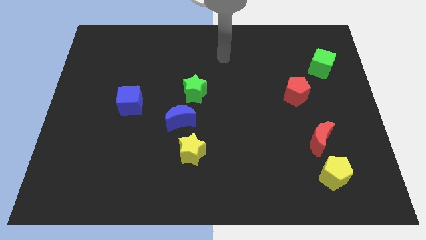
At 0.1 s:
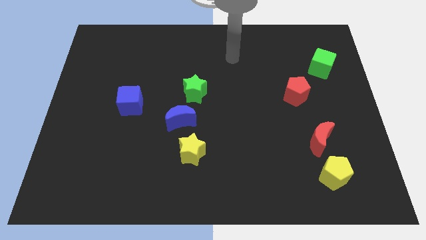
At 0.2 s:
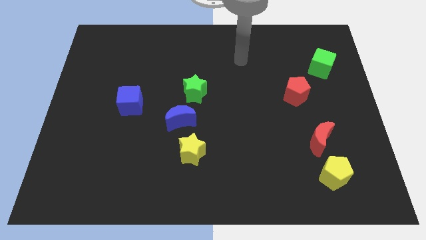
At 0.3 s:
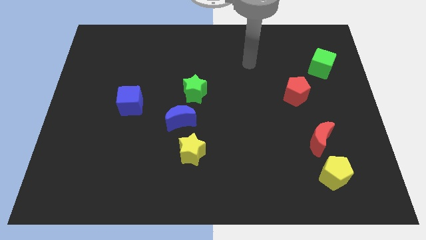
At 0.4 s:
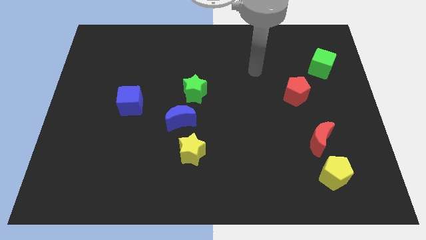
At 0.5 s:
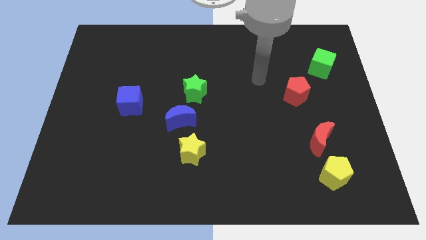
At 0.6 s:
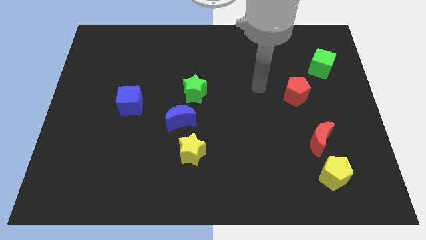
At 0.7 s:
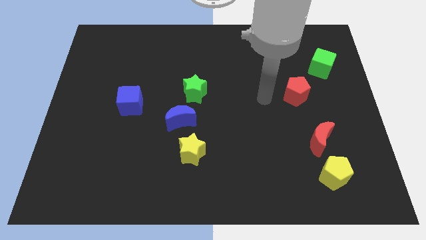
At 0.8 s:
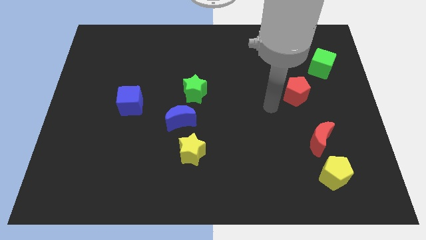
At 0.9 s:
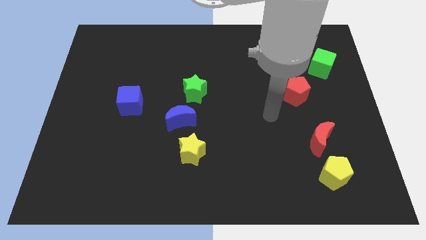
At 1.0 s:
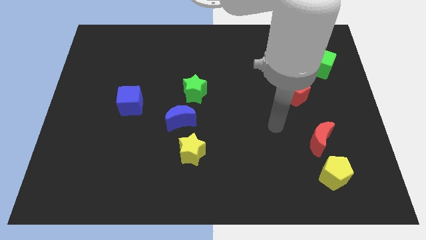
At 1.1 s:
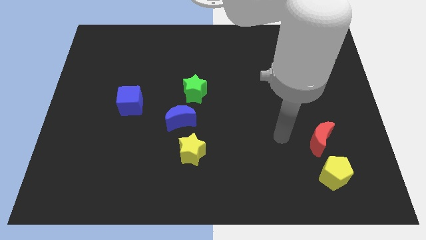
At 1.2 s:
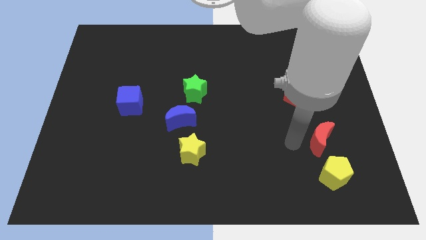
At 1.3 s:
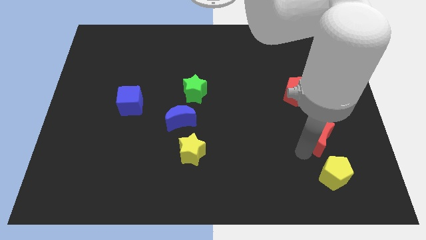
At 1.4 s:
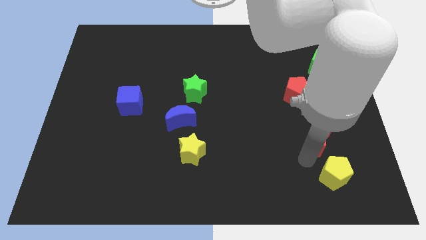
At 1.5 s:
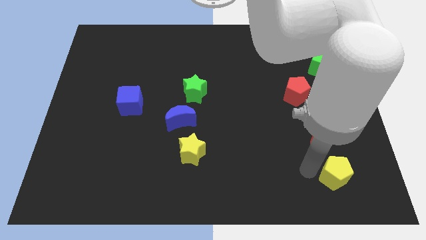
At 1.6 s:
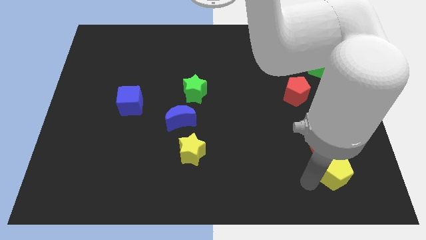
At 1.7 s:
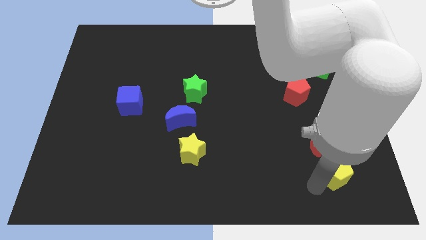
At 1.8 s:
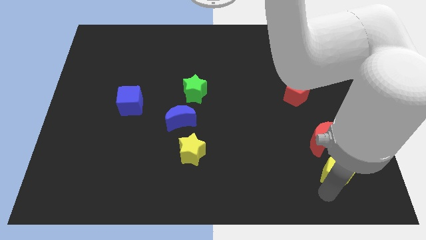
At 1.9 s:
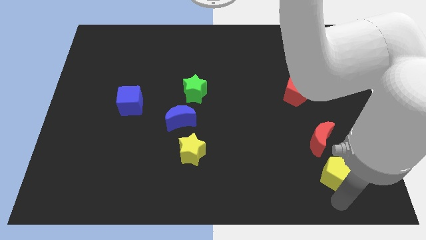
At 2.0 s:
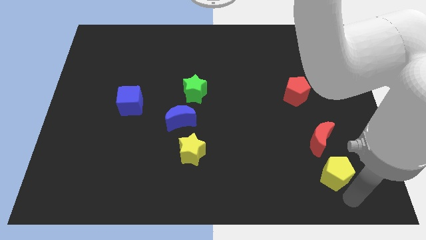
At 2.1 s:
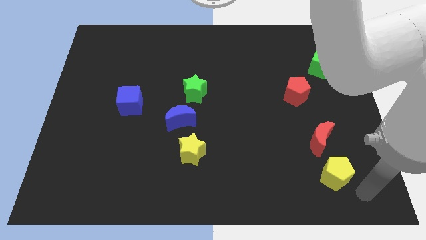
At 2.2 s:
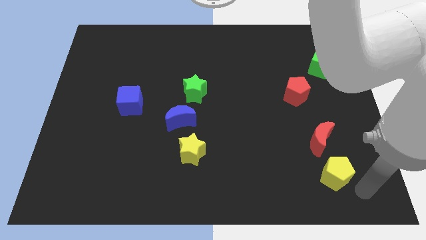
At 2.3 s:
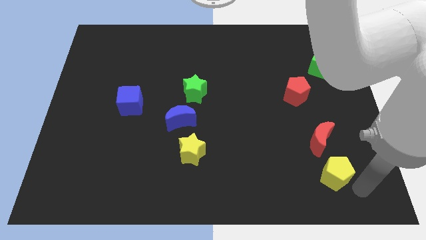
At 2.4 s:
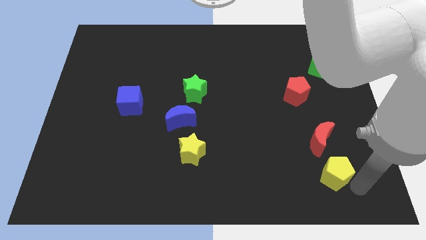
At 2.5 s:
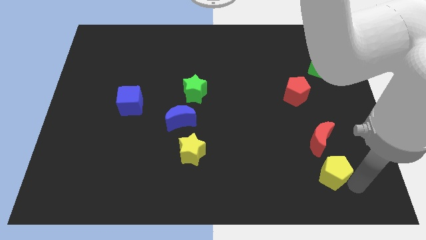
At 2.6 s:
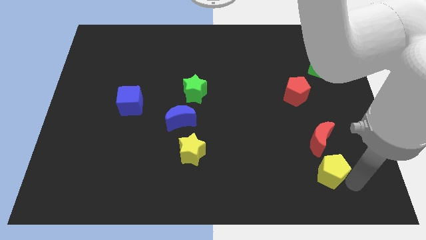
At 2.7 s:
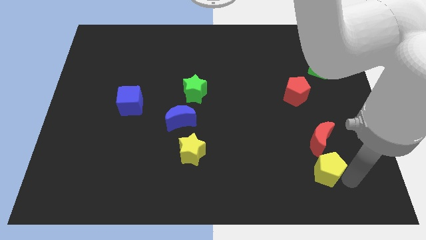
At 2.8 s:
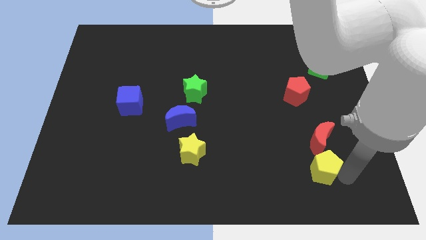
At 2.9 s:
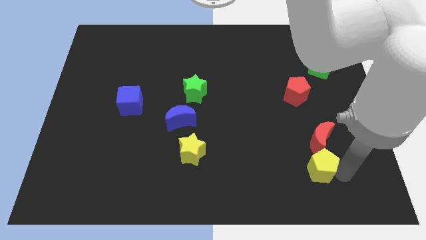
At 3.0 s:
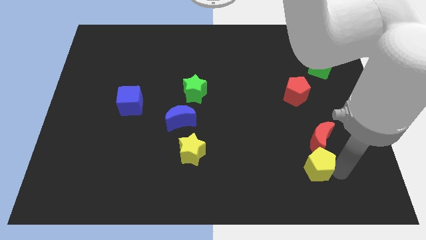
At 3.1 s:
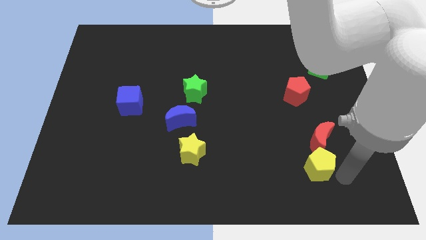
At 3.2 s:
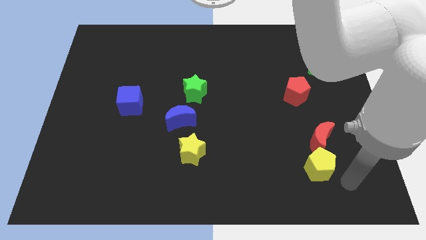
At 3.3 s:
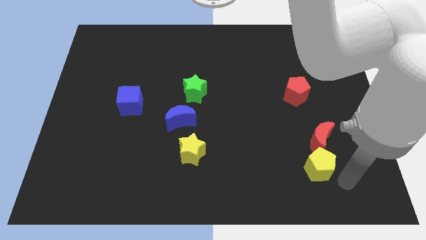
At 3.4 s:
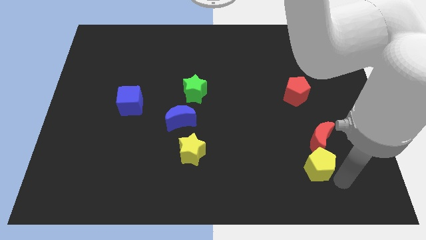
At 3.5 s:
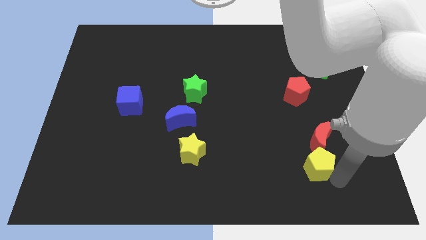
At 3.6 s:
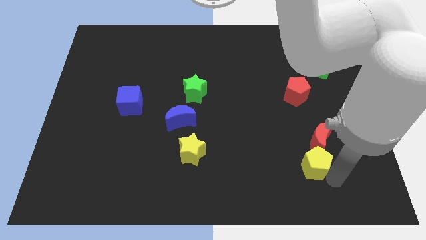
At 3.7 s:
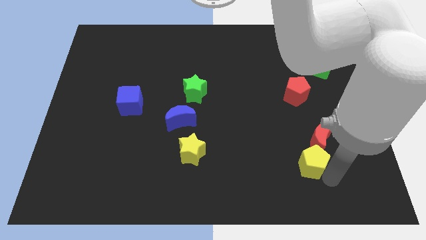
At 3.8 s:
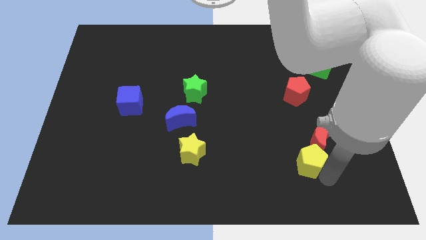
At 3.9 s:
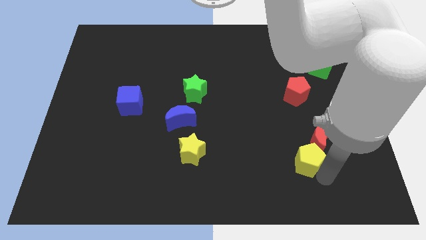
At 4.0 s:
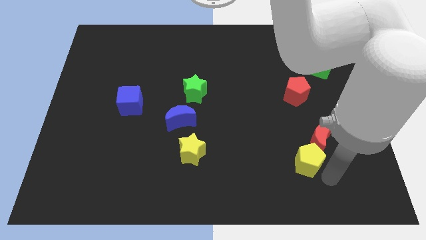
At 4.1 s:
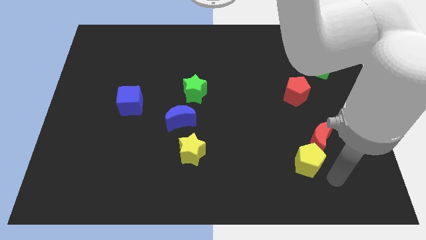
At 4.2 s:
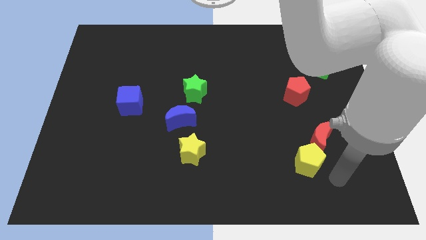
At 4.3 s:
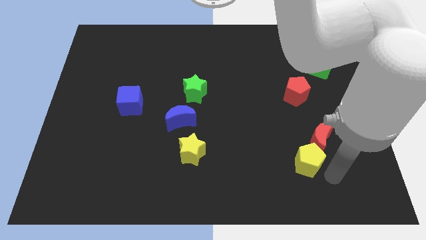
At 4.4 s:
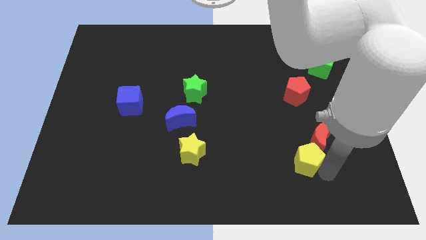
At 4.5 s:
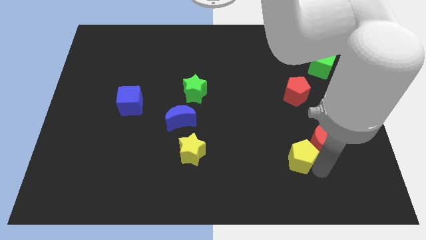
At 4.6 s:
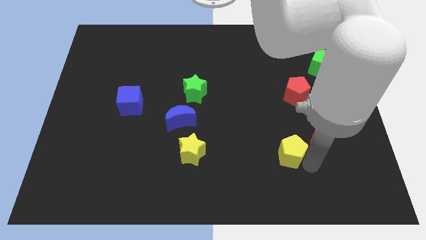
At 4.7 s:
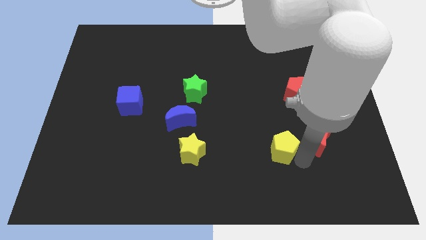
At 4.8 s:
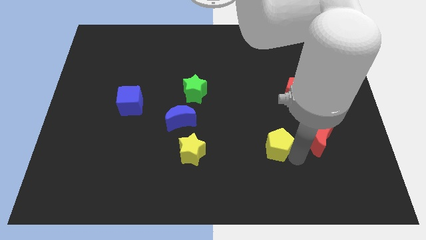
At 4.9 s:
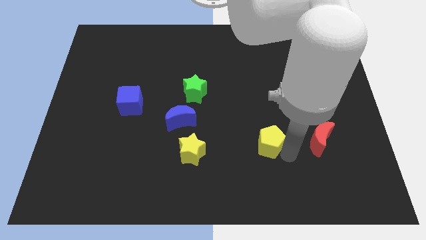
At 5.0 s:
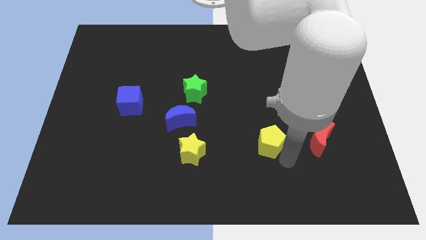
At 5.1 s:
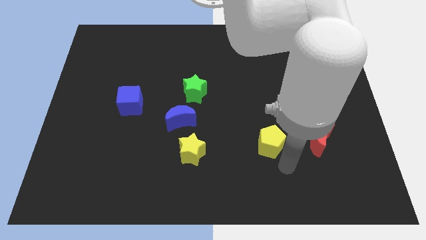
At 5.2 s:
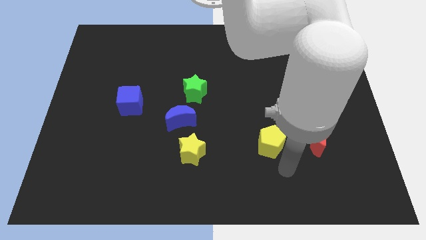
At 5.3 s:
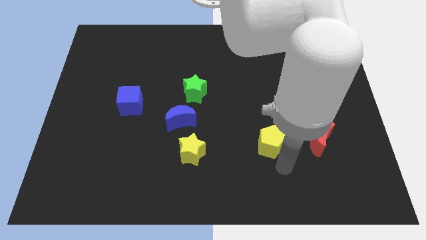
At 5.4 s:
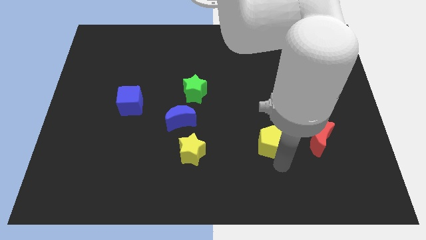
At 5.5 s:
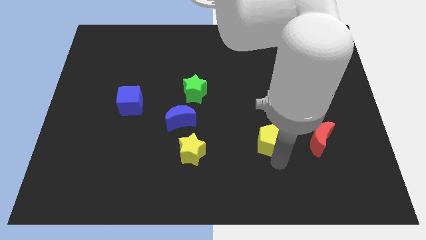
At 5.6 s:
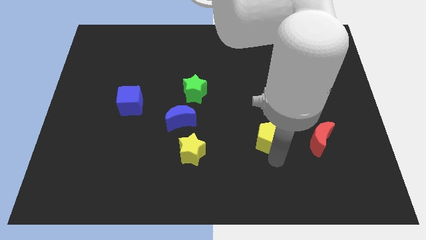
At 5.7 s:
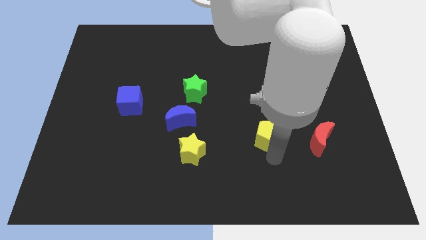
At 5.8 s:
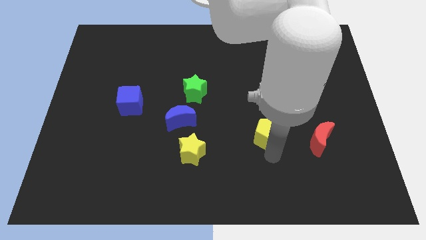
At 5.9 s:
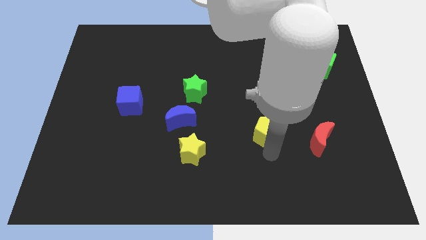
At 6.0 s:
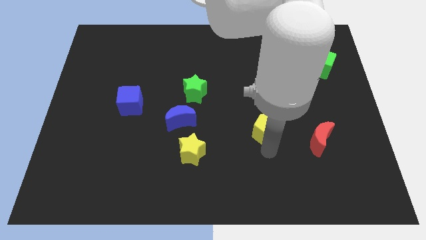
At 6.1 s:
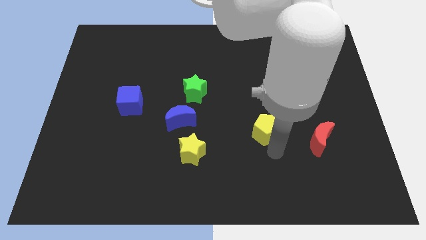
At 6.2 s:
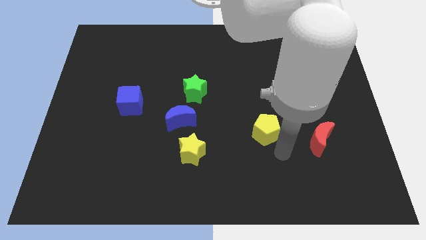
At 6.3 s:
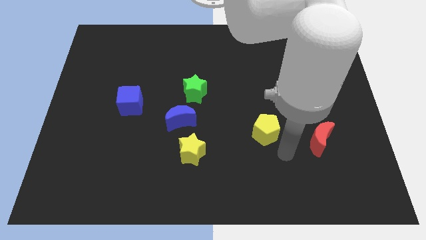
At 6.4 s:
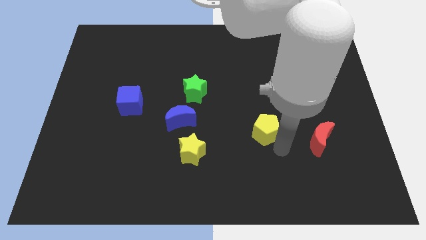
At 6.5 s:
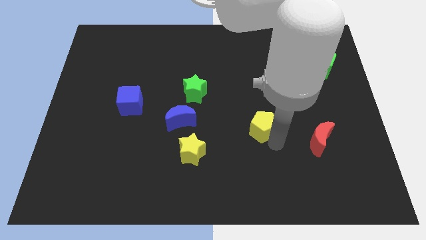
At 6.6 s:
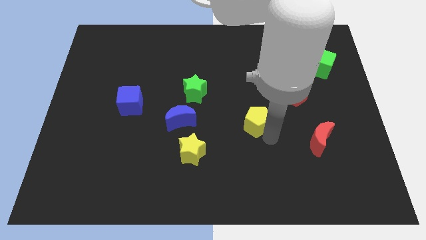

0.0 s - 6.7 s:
push the yellow pentagon diagonally upwards and left

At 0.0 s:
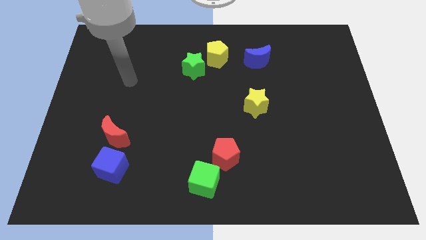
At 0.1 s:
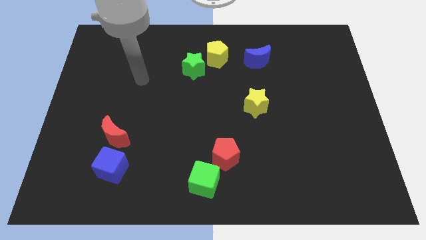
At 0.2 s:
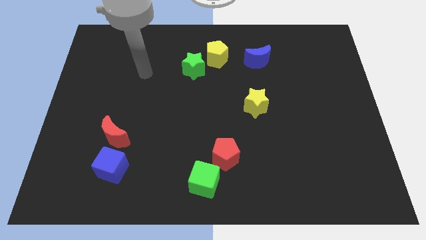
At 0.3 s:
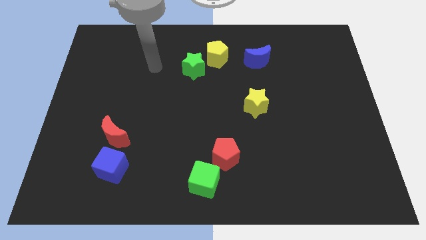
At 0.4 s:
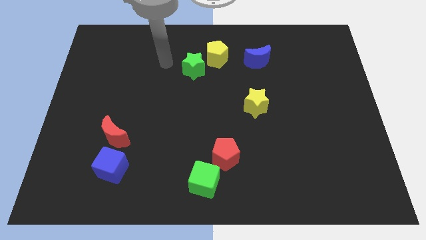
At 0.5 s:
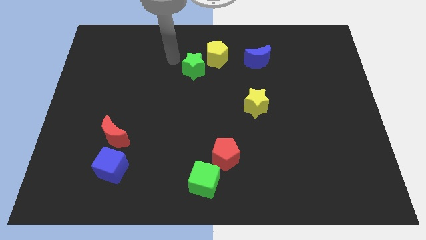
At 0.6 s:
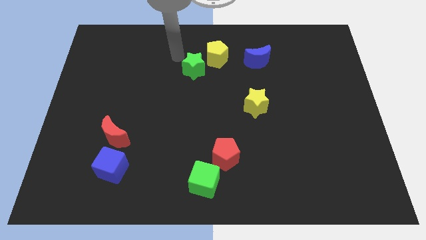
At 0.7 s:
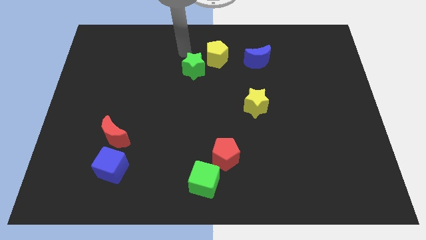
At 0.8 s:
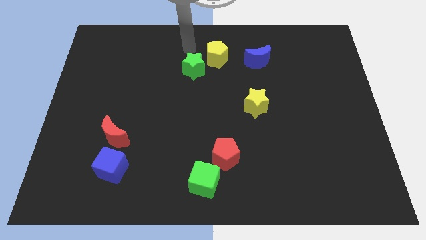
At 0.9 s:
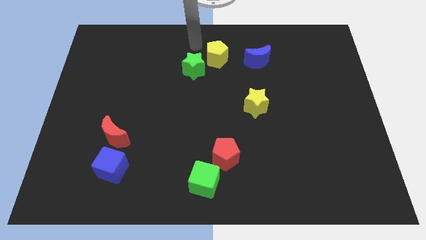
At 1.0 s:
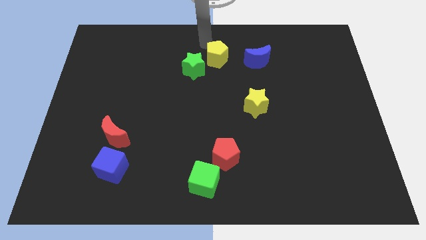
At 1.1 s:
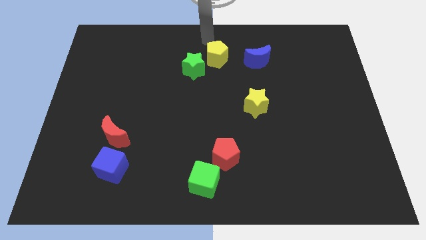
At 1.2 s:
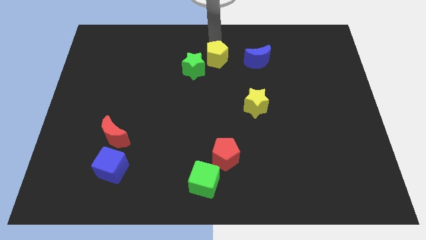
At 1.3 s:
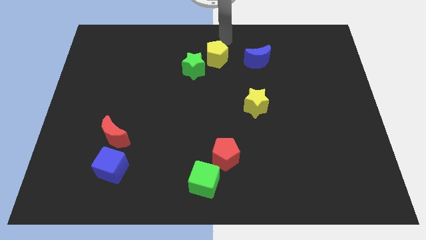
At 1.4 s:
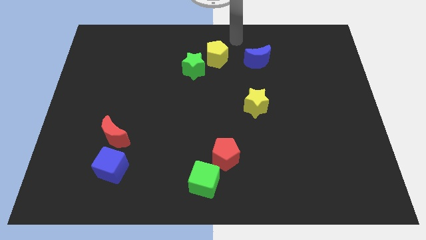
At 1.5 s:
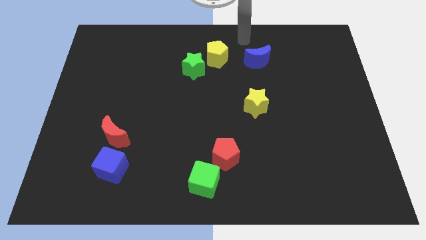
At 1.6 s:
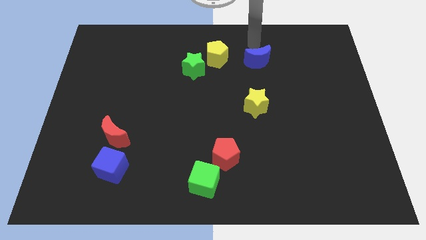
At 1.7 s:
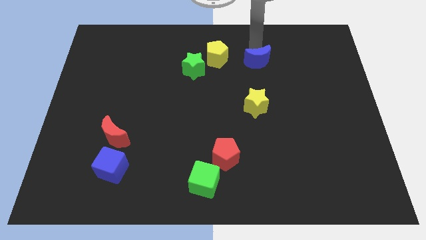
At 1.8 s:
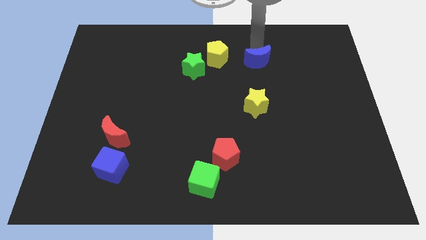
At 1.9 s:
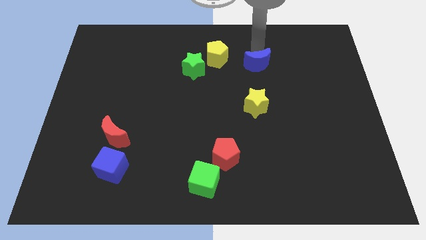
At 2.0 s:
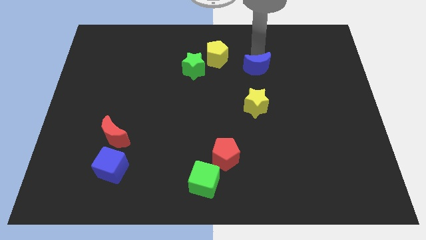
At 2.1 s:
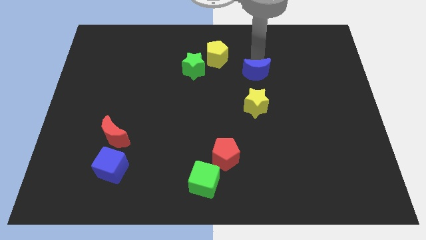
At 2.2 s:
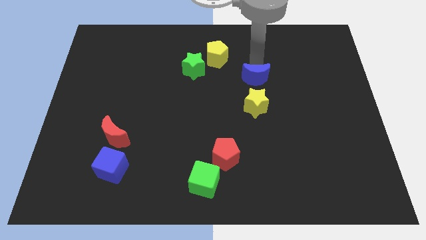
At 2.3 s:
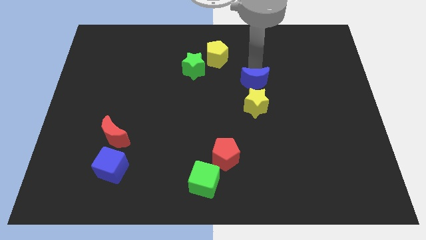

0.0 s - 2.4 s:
slightly slide the blue moon downwards
